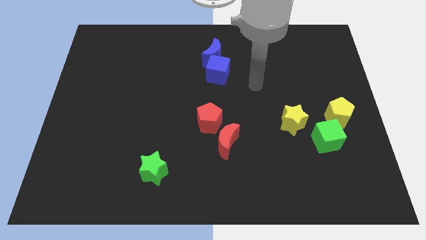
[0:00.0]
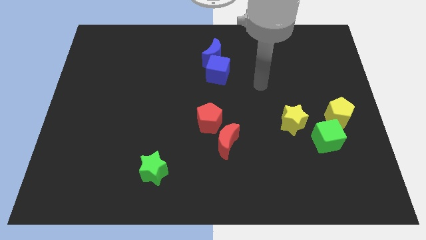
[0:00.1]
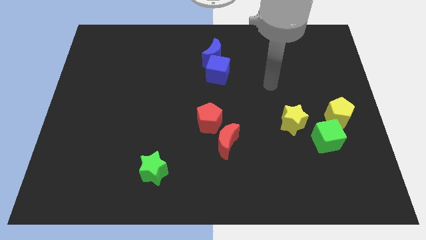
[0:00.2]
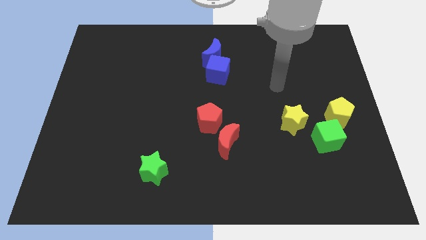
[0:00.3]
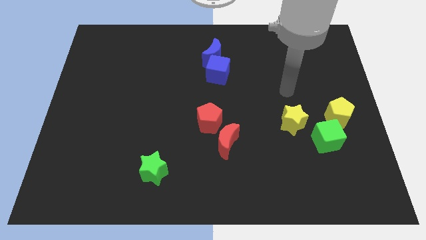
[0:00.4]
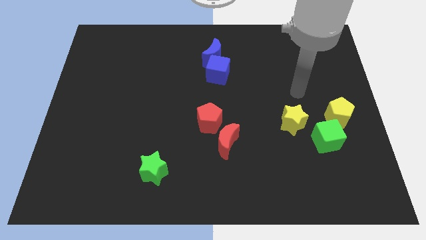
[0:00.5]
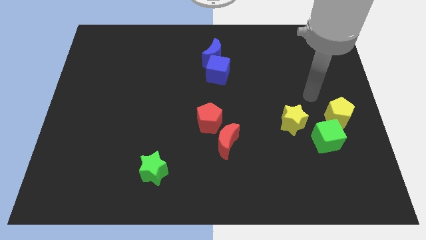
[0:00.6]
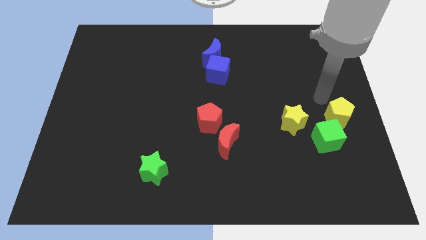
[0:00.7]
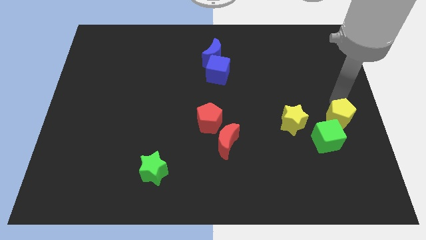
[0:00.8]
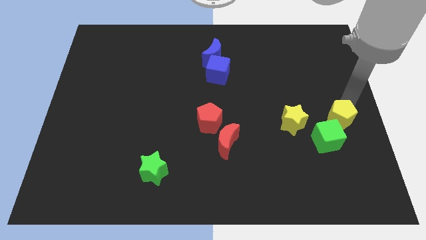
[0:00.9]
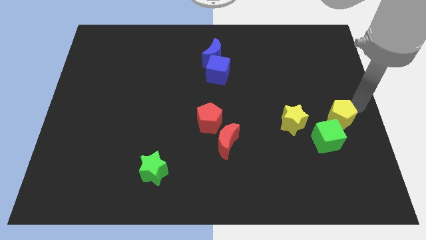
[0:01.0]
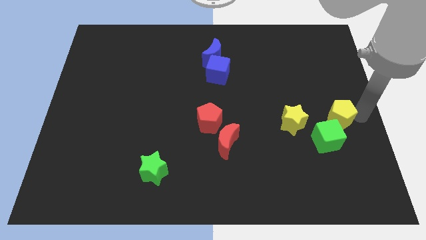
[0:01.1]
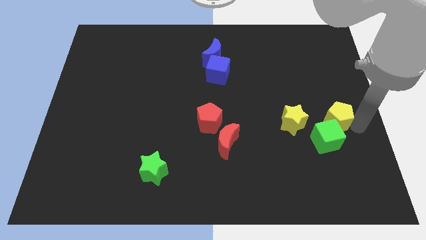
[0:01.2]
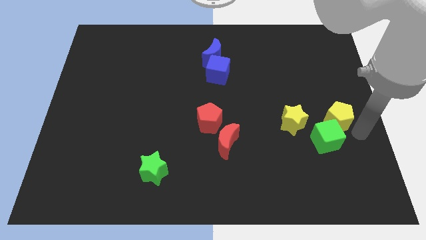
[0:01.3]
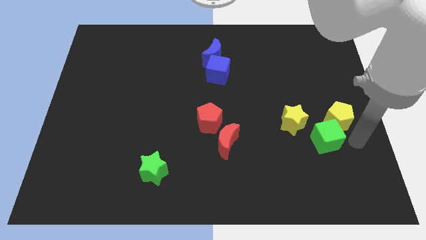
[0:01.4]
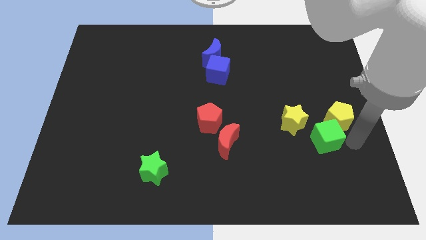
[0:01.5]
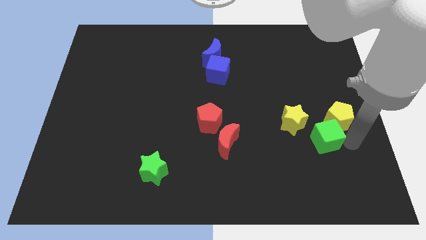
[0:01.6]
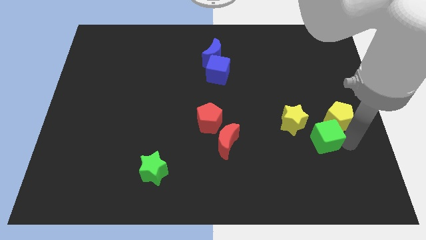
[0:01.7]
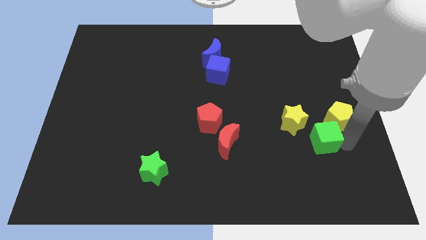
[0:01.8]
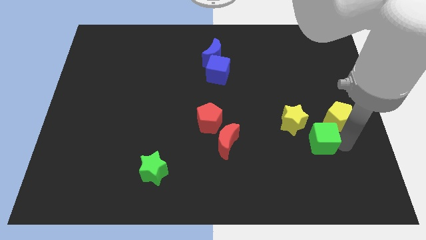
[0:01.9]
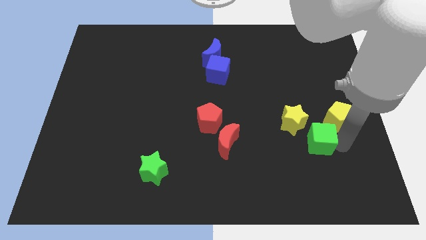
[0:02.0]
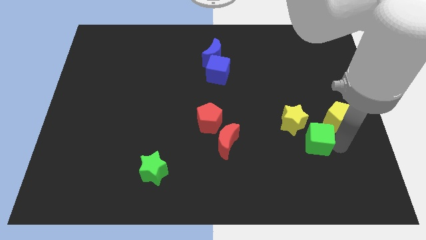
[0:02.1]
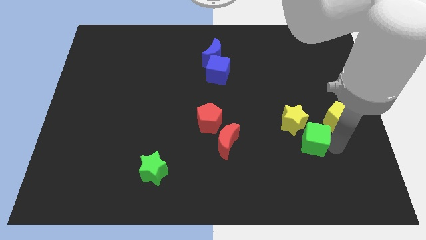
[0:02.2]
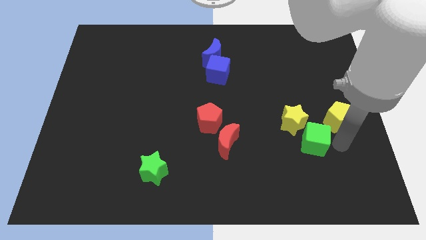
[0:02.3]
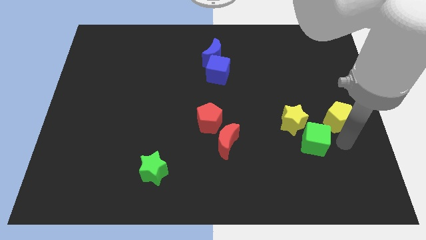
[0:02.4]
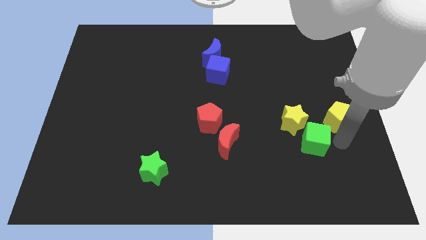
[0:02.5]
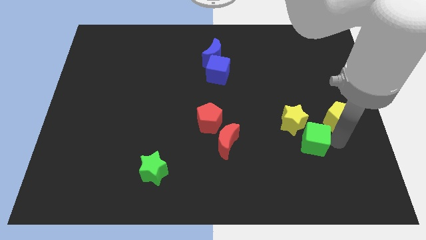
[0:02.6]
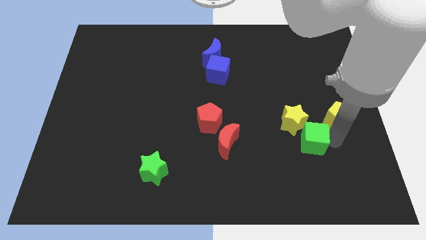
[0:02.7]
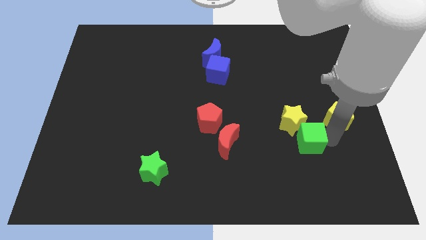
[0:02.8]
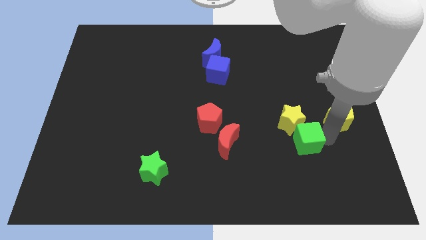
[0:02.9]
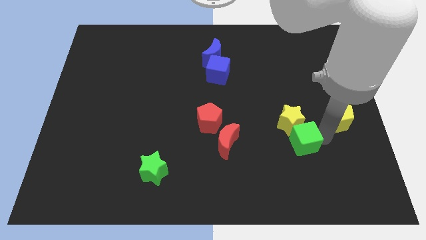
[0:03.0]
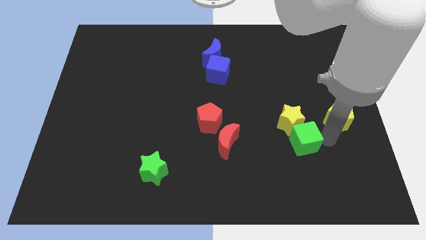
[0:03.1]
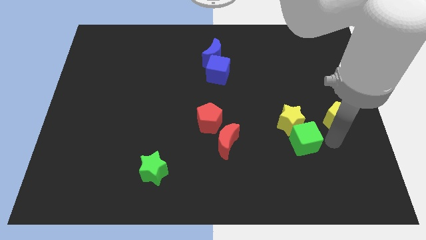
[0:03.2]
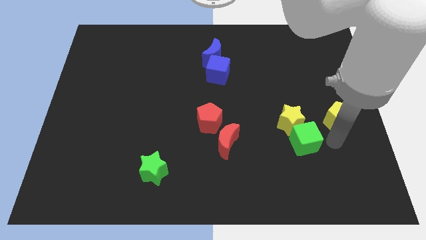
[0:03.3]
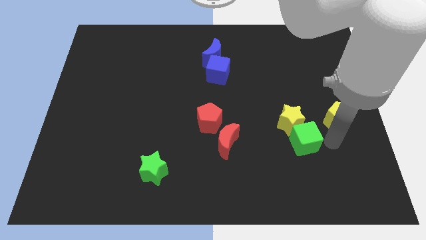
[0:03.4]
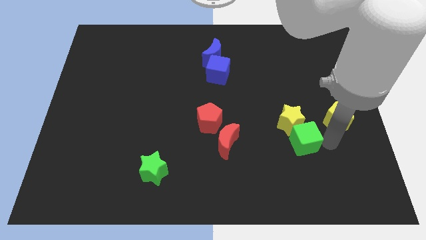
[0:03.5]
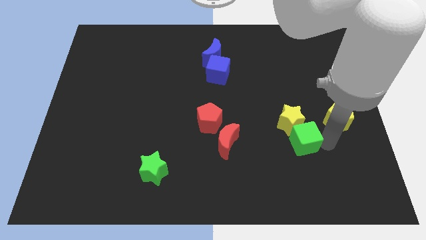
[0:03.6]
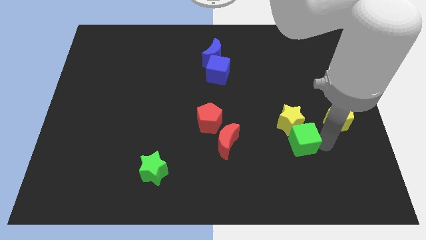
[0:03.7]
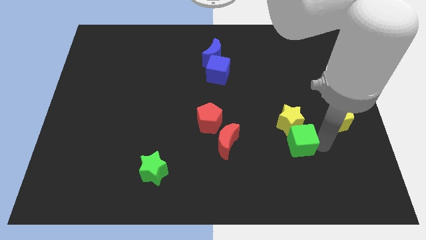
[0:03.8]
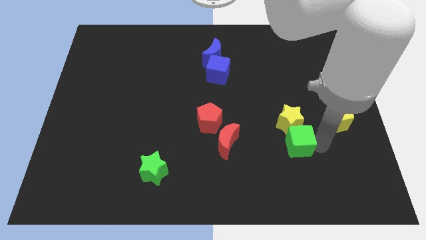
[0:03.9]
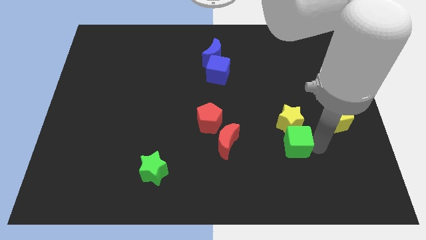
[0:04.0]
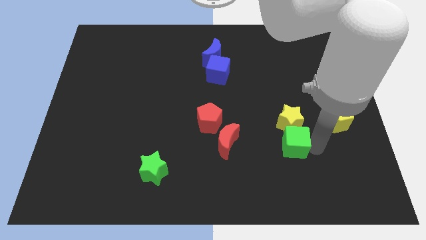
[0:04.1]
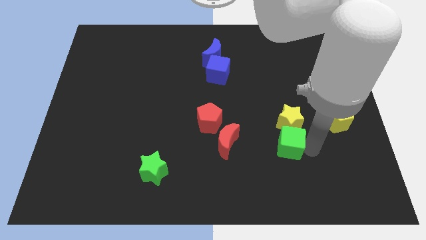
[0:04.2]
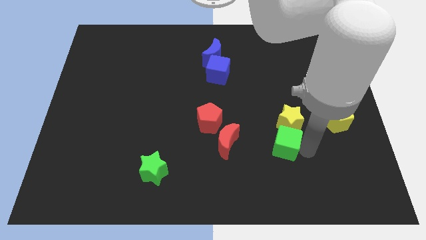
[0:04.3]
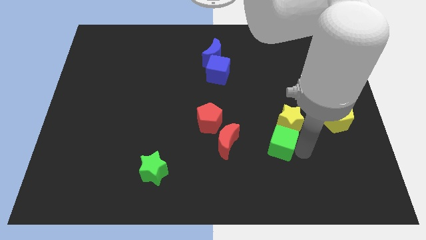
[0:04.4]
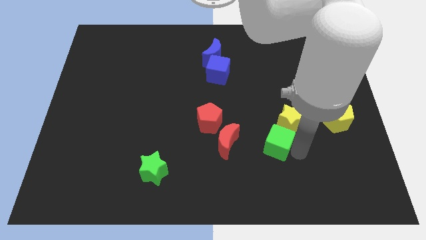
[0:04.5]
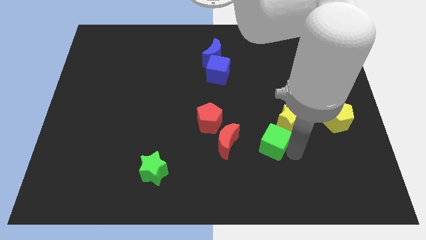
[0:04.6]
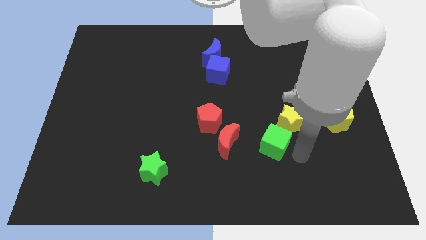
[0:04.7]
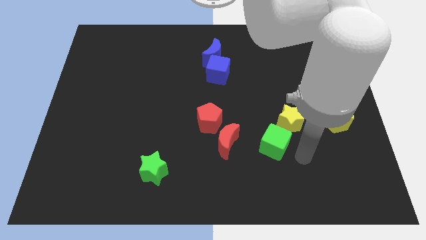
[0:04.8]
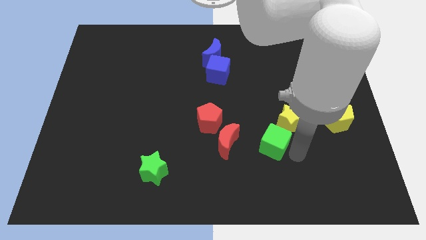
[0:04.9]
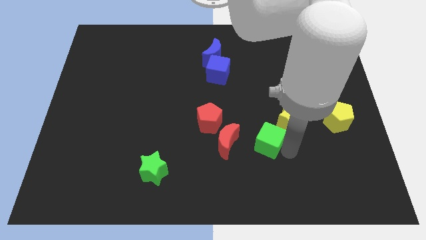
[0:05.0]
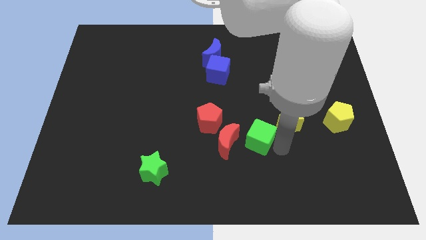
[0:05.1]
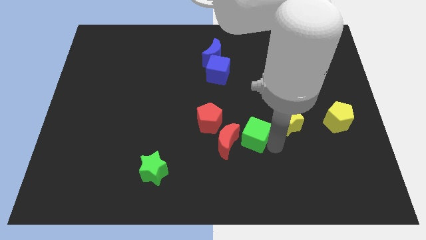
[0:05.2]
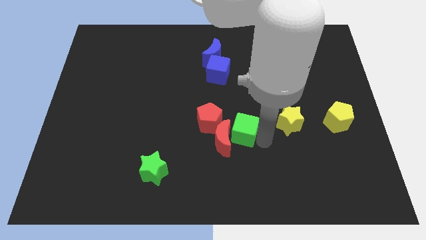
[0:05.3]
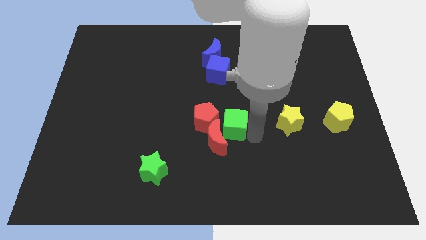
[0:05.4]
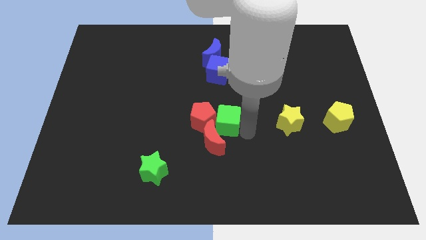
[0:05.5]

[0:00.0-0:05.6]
put the green cube close to the red pentagon

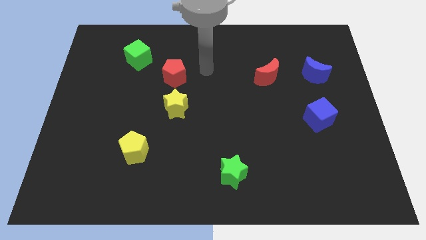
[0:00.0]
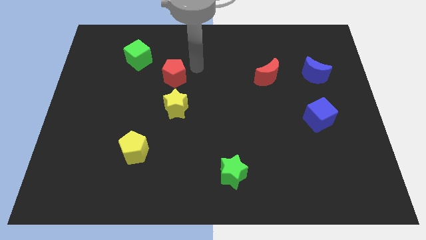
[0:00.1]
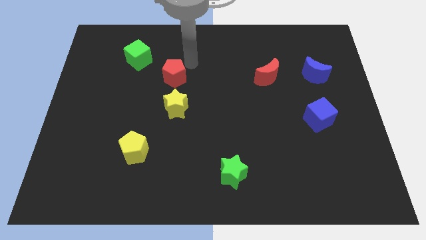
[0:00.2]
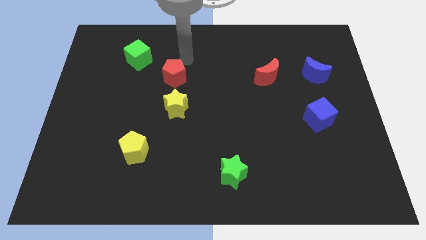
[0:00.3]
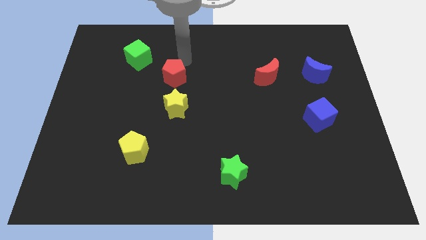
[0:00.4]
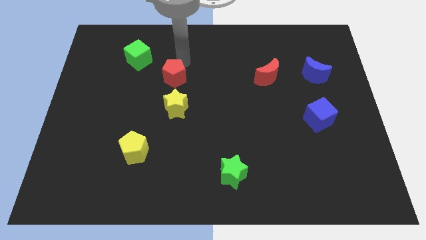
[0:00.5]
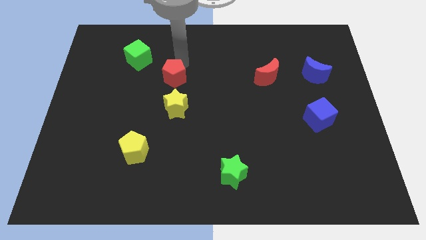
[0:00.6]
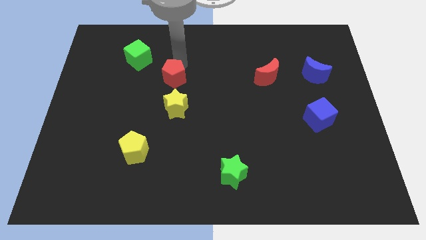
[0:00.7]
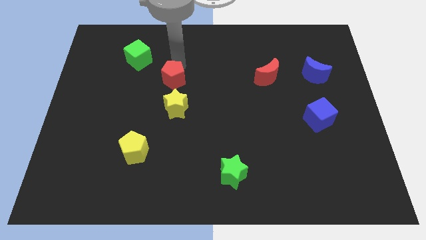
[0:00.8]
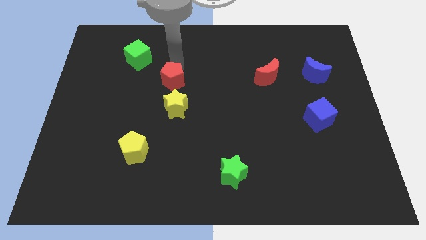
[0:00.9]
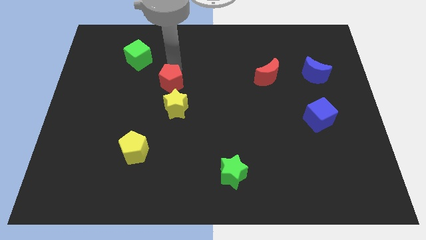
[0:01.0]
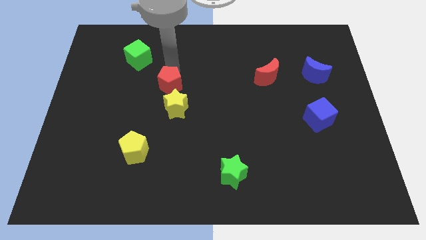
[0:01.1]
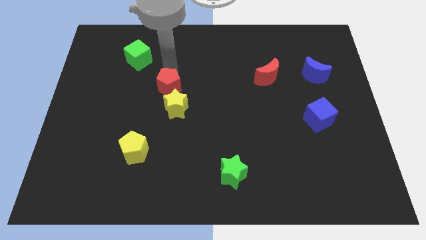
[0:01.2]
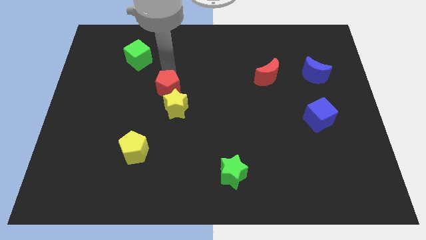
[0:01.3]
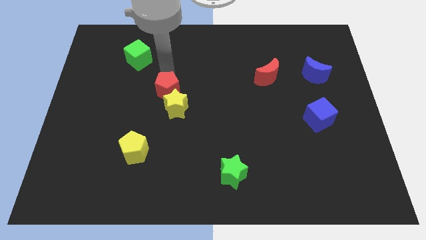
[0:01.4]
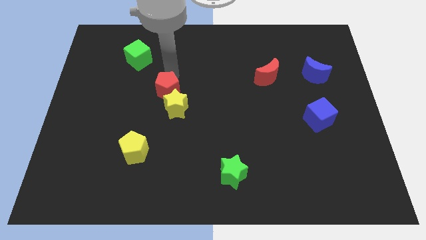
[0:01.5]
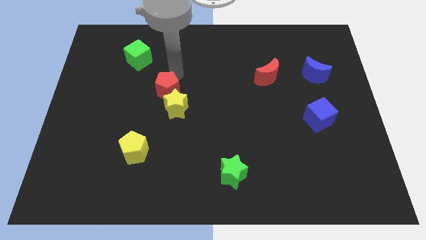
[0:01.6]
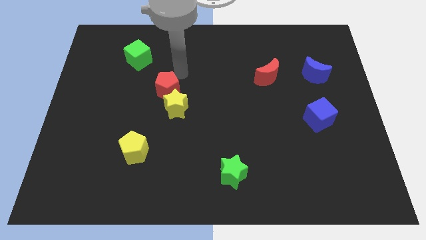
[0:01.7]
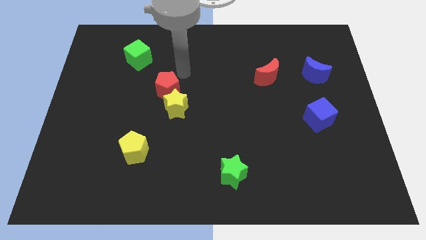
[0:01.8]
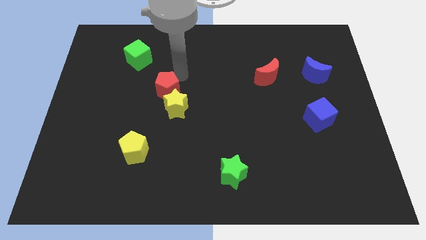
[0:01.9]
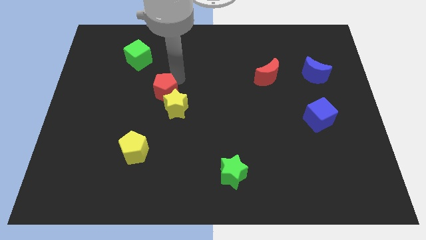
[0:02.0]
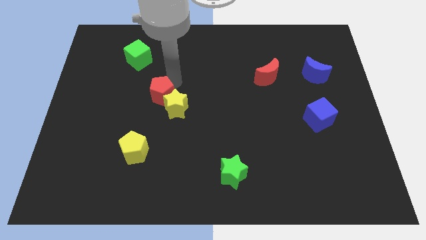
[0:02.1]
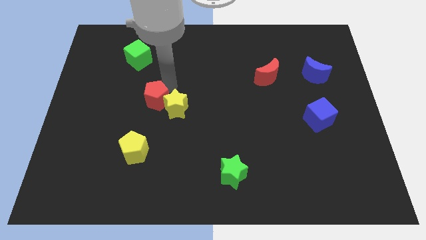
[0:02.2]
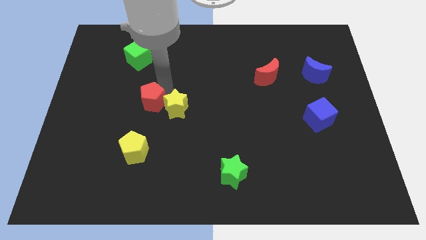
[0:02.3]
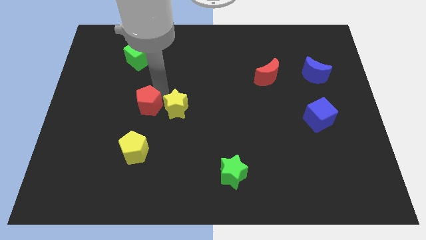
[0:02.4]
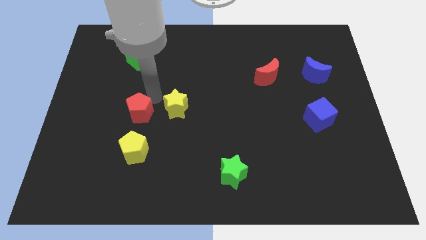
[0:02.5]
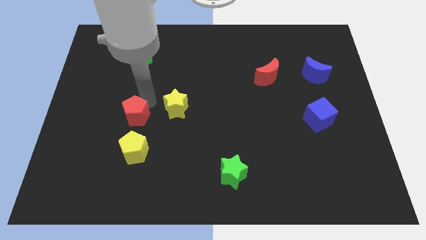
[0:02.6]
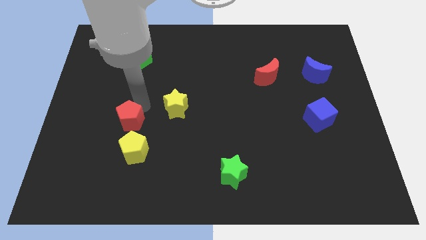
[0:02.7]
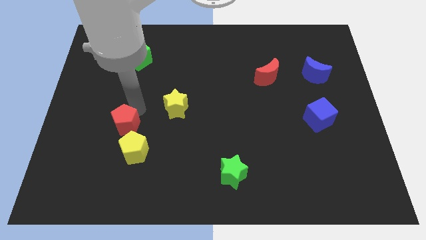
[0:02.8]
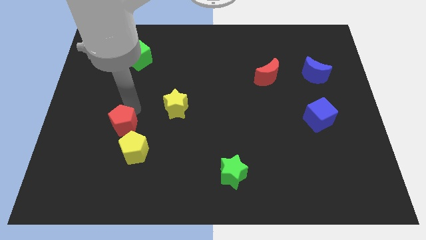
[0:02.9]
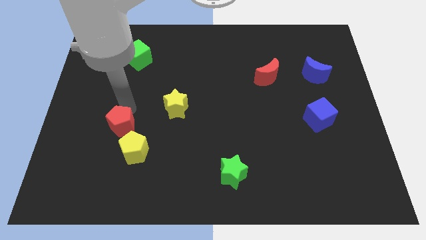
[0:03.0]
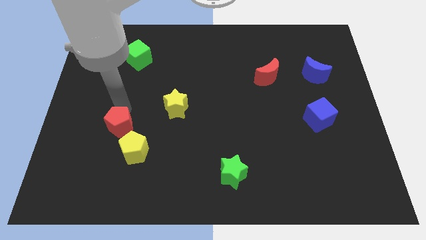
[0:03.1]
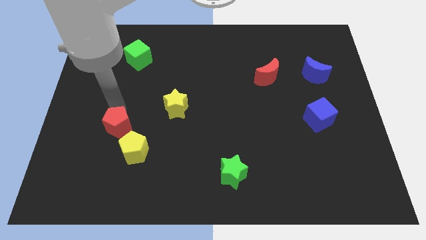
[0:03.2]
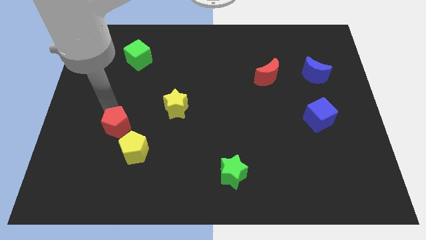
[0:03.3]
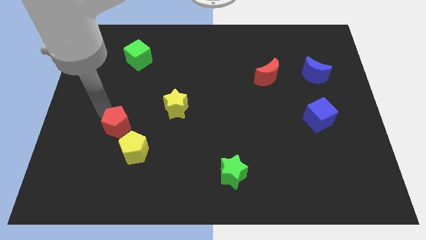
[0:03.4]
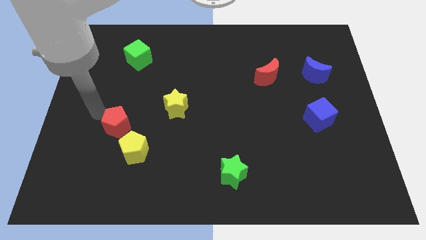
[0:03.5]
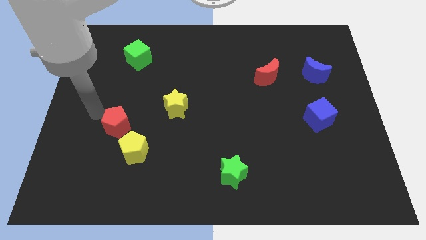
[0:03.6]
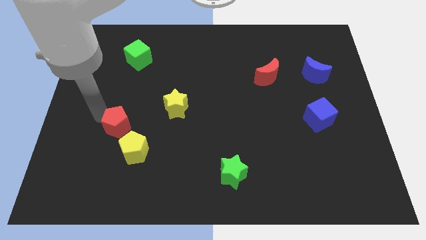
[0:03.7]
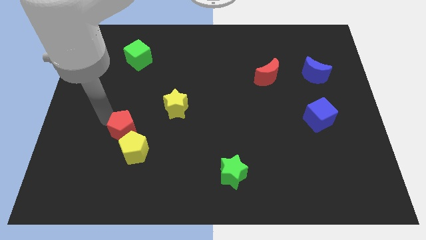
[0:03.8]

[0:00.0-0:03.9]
put the red pentagon to the yellow pentagon
